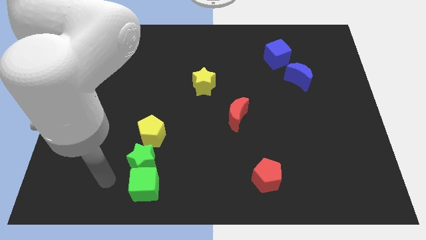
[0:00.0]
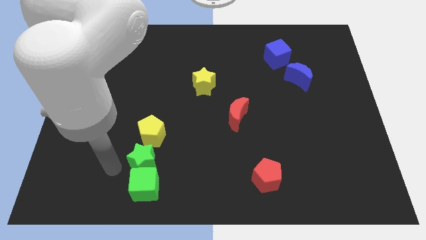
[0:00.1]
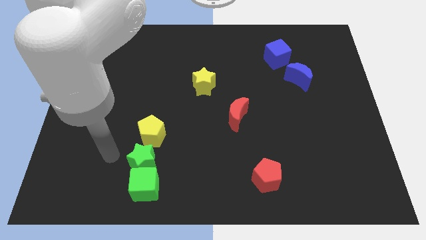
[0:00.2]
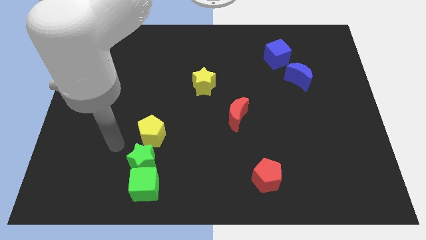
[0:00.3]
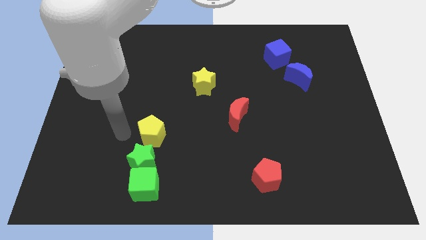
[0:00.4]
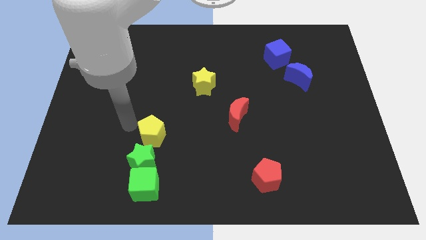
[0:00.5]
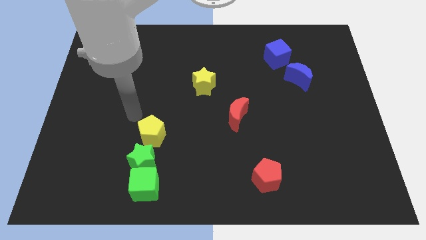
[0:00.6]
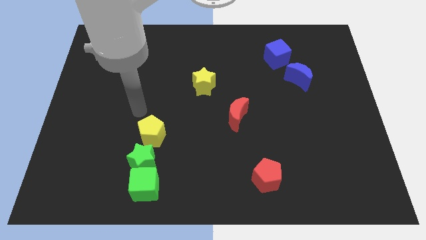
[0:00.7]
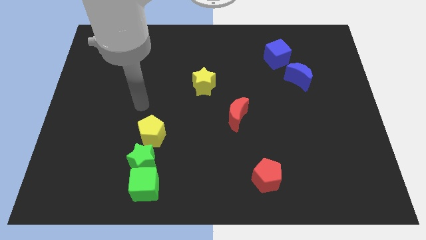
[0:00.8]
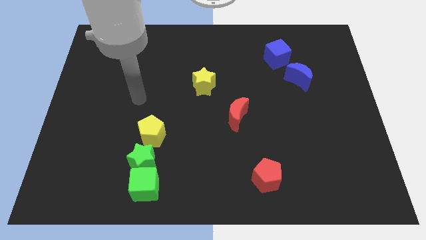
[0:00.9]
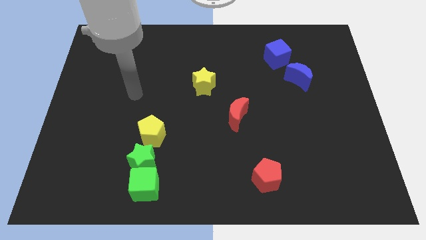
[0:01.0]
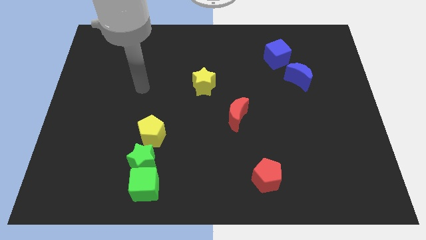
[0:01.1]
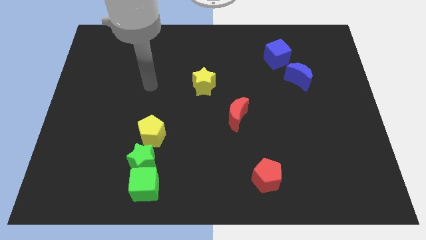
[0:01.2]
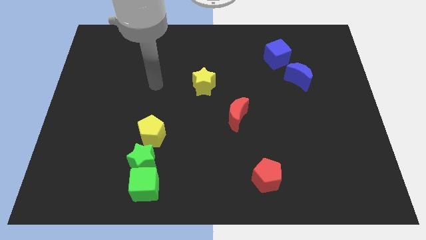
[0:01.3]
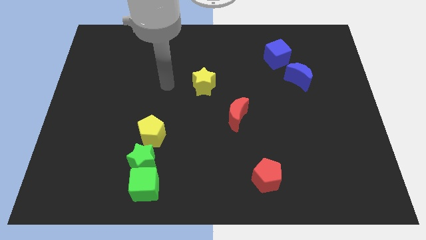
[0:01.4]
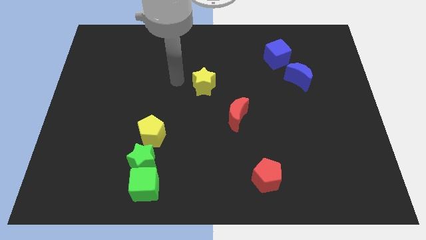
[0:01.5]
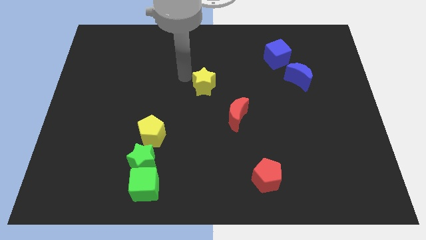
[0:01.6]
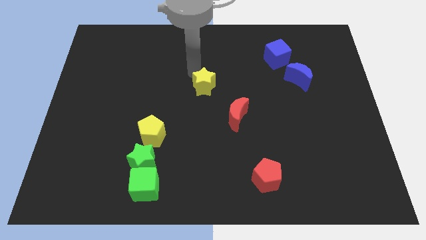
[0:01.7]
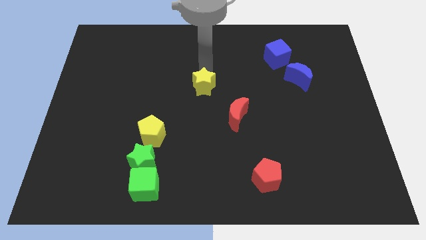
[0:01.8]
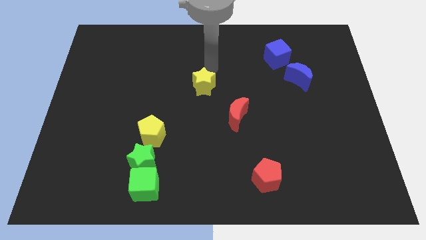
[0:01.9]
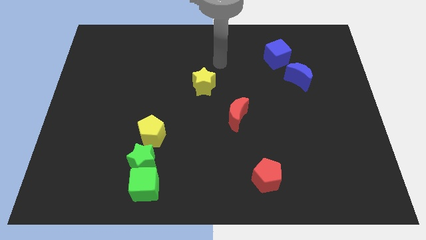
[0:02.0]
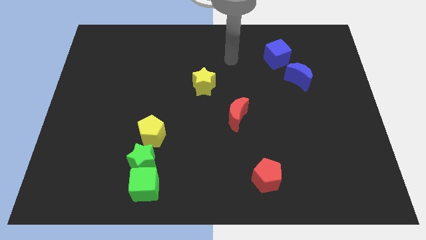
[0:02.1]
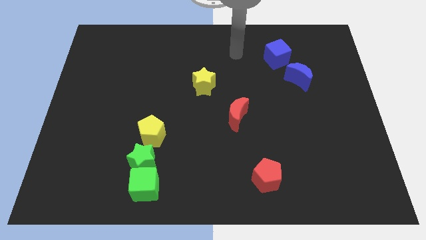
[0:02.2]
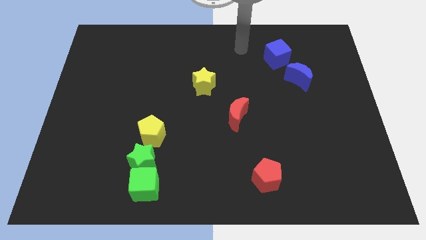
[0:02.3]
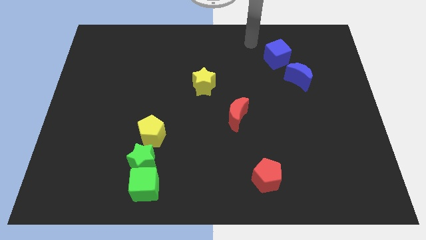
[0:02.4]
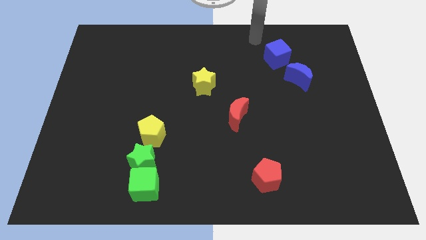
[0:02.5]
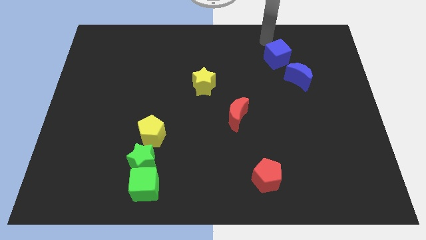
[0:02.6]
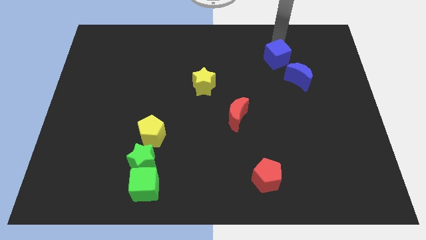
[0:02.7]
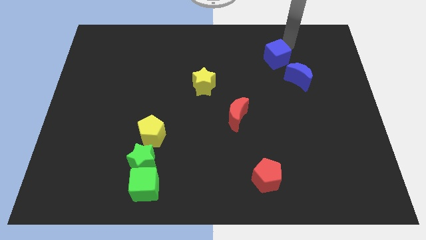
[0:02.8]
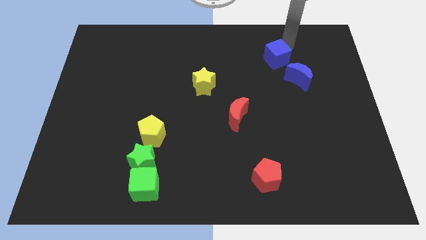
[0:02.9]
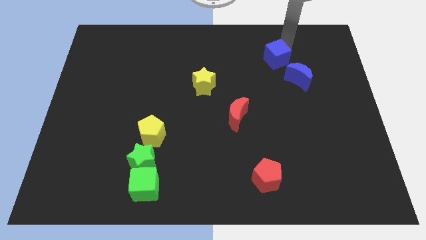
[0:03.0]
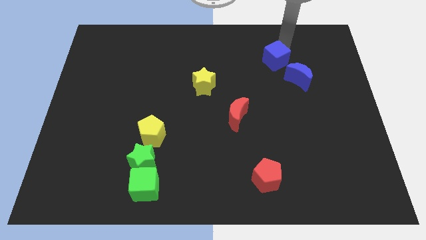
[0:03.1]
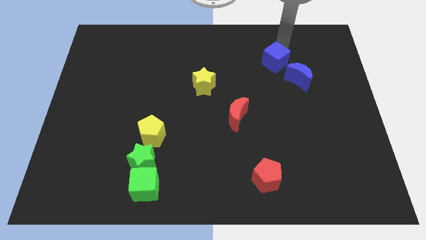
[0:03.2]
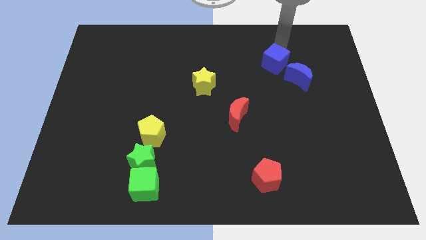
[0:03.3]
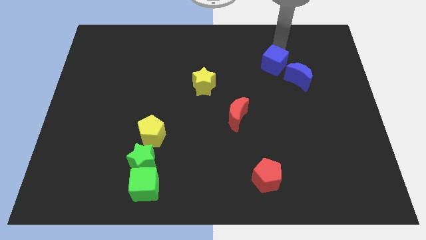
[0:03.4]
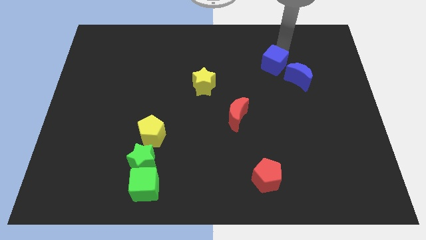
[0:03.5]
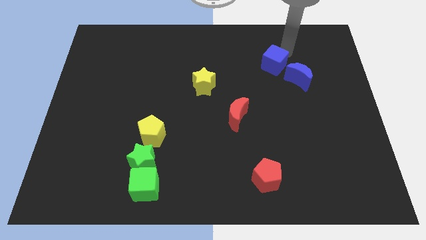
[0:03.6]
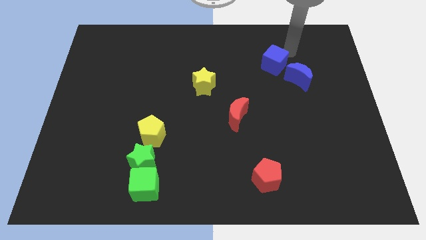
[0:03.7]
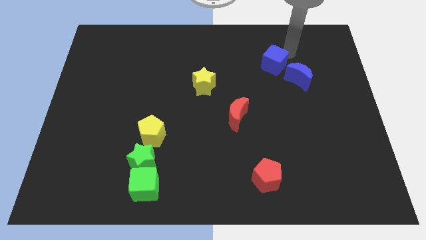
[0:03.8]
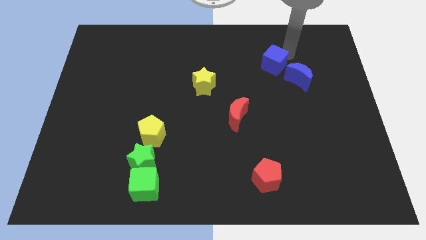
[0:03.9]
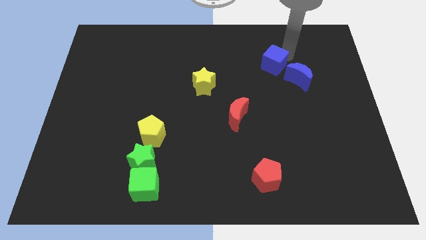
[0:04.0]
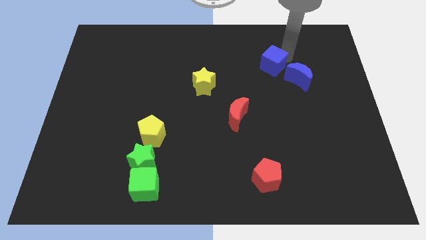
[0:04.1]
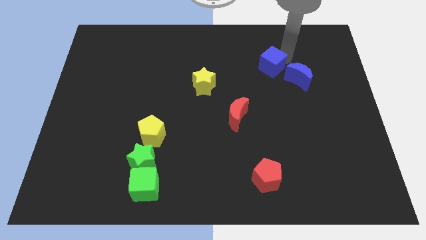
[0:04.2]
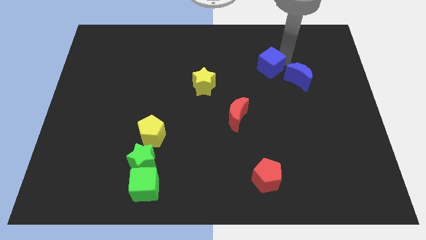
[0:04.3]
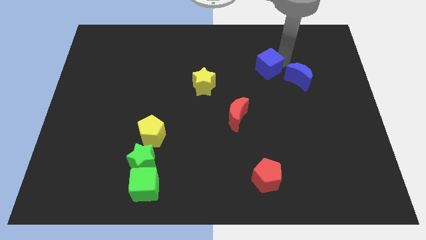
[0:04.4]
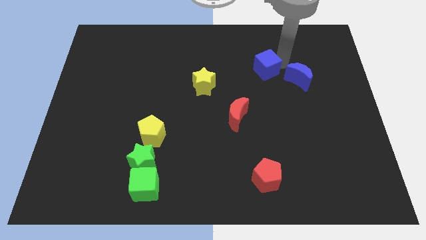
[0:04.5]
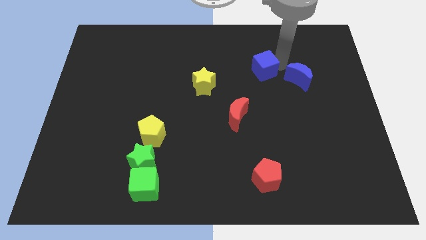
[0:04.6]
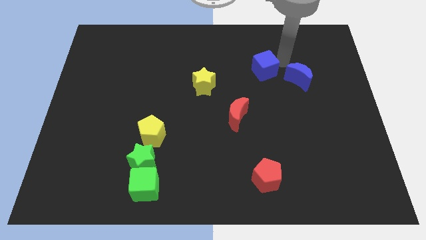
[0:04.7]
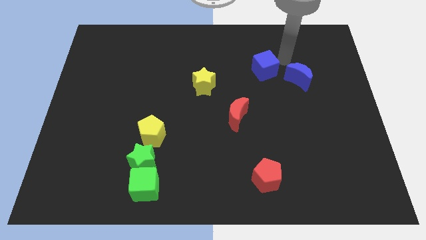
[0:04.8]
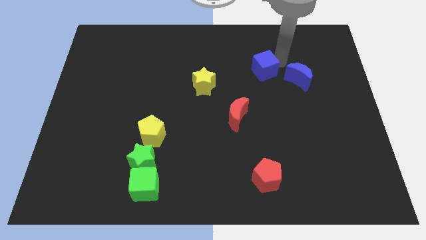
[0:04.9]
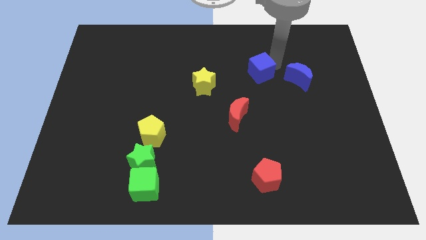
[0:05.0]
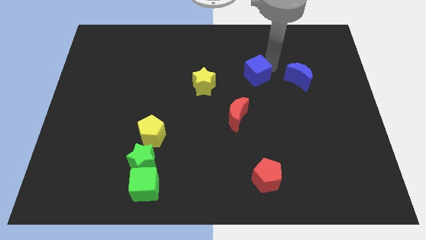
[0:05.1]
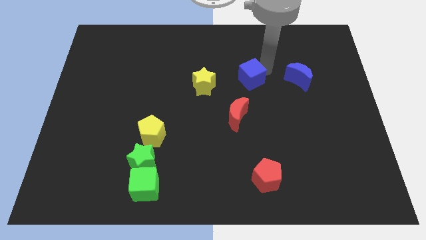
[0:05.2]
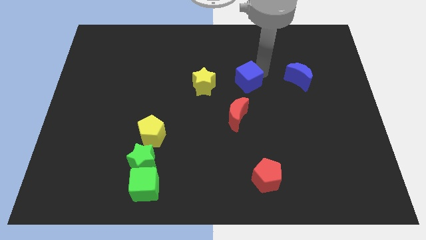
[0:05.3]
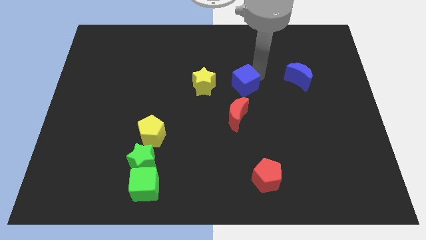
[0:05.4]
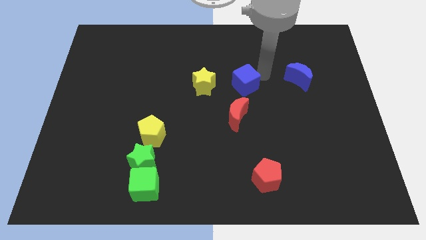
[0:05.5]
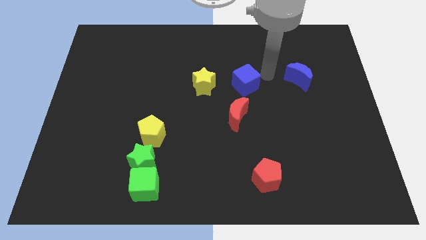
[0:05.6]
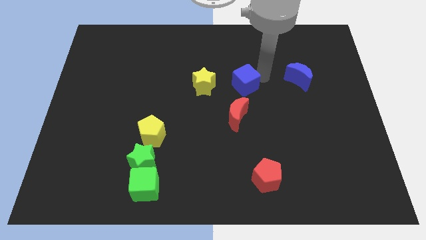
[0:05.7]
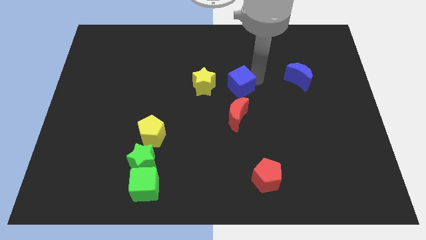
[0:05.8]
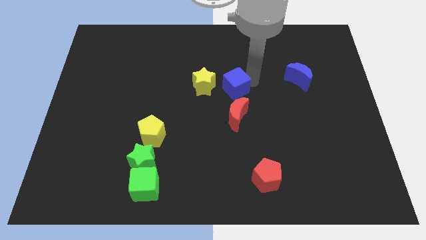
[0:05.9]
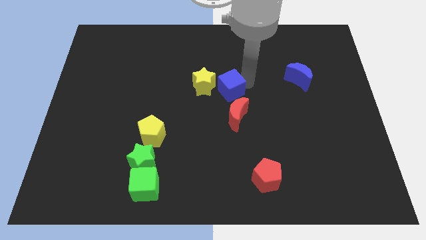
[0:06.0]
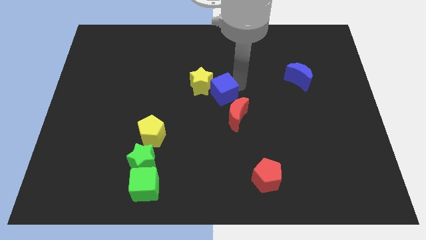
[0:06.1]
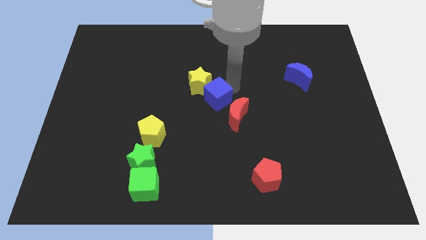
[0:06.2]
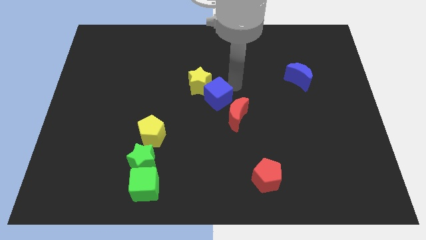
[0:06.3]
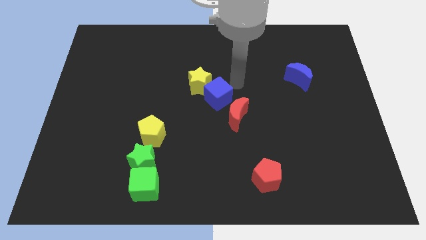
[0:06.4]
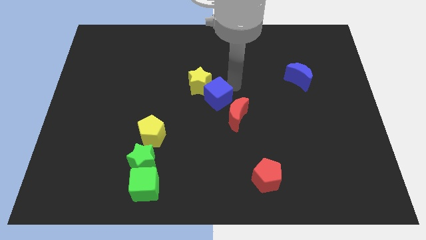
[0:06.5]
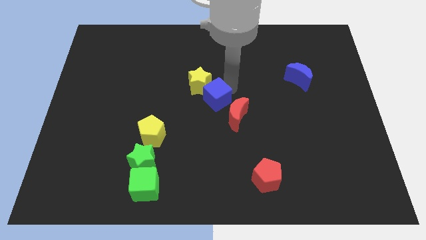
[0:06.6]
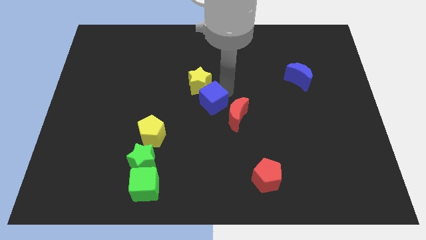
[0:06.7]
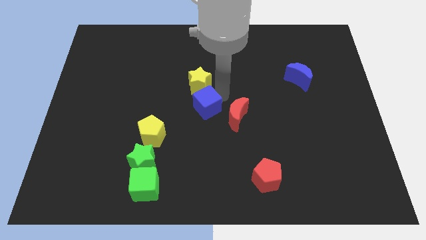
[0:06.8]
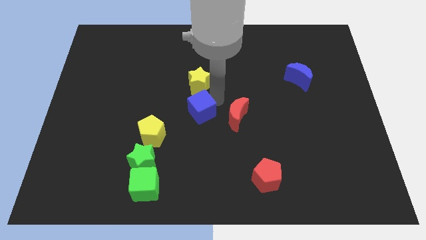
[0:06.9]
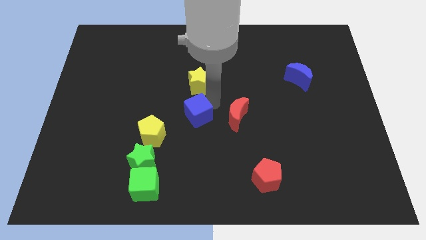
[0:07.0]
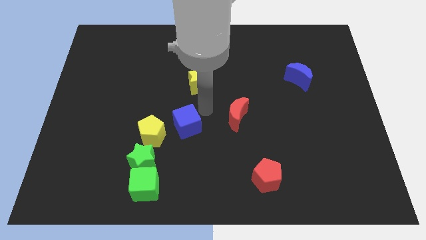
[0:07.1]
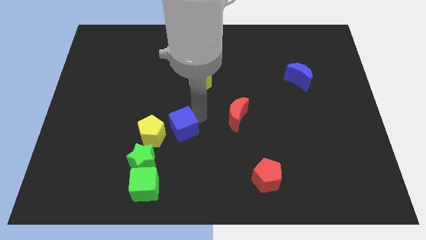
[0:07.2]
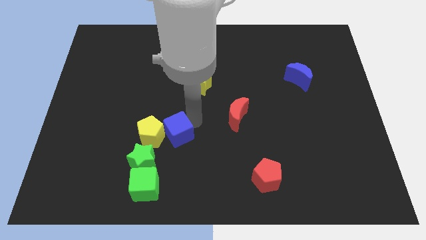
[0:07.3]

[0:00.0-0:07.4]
slide the blue cube to the yellow pentagon

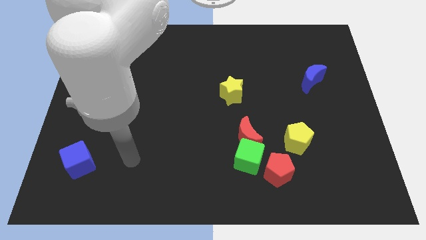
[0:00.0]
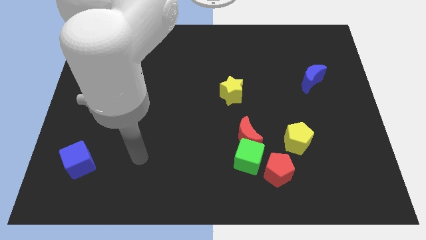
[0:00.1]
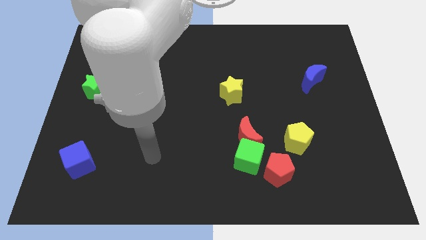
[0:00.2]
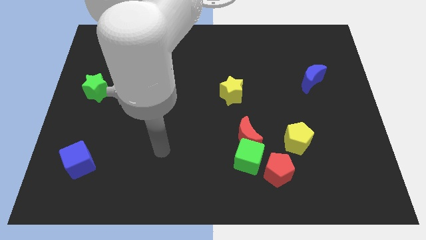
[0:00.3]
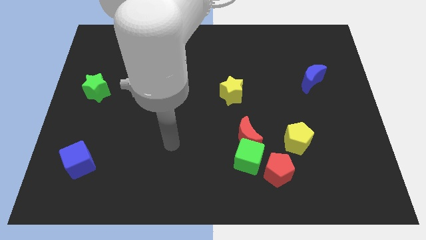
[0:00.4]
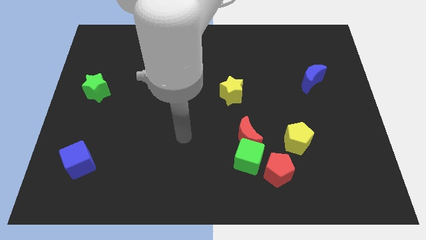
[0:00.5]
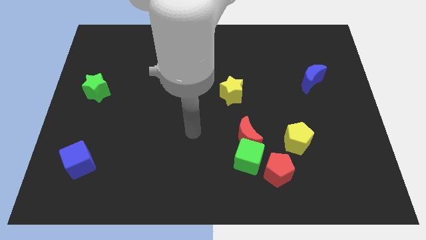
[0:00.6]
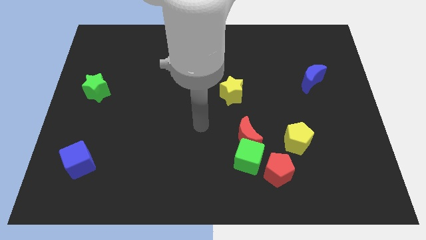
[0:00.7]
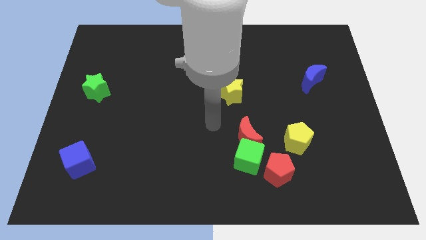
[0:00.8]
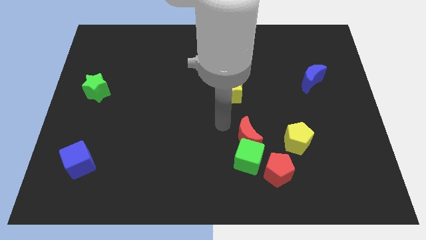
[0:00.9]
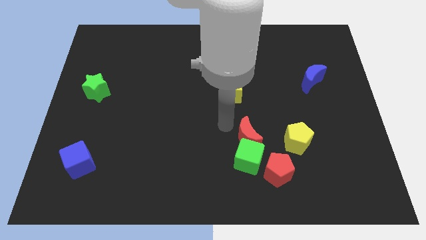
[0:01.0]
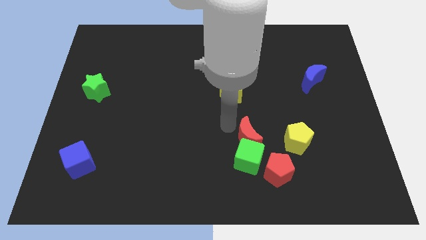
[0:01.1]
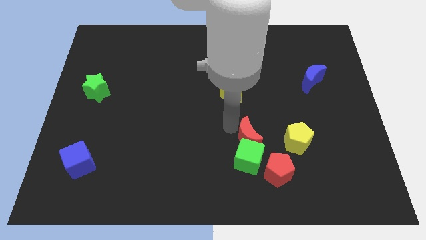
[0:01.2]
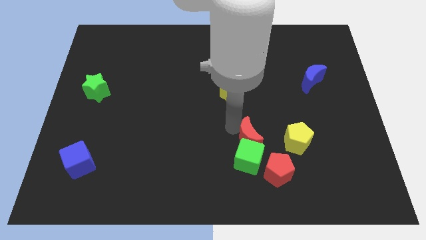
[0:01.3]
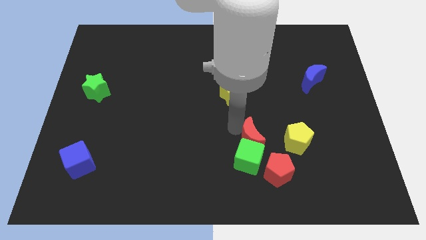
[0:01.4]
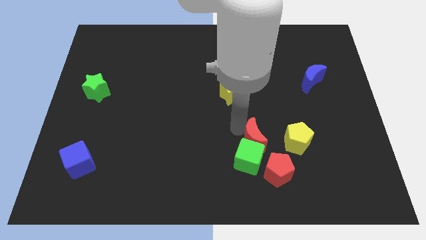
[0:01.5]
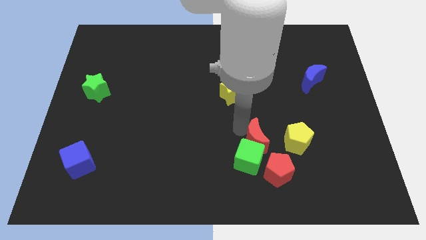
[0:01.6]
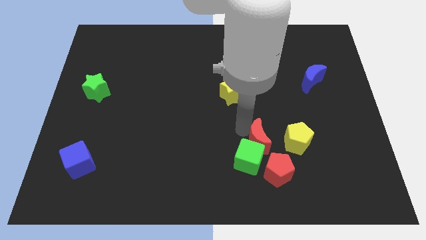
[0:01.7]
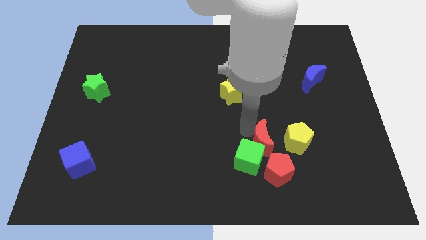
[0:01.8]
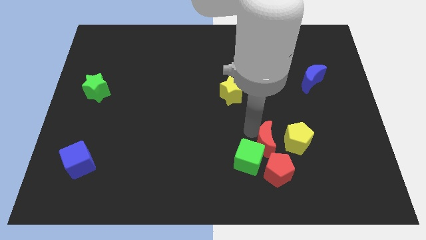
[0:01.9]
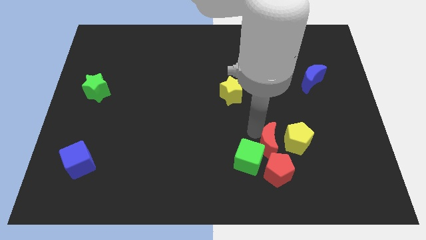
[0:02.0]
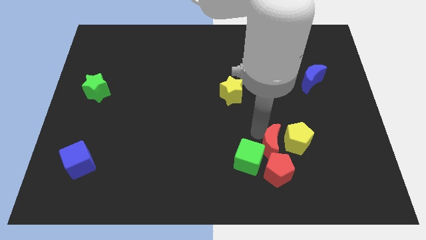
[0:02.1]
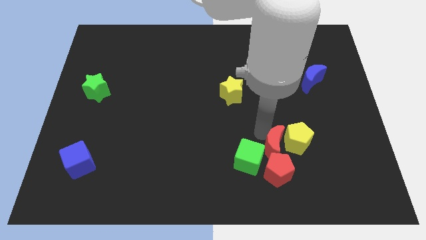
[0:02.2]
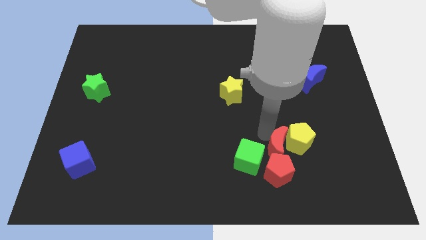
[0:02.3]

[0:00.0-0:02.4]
push the red moon to the red pentagon
